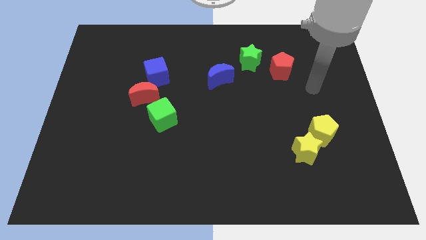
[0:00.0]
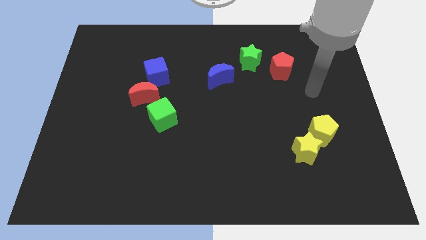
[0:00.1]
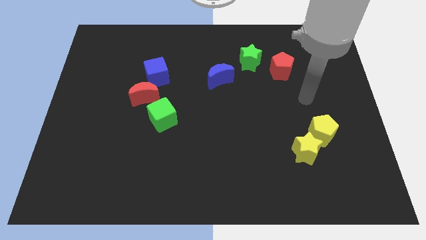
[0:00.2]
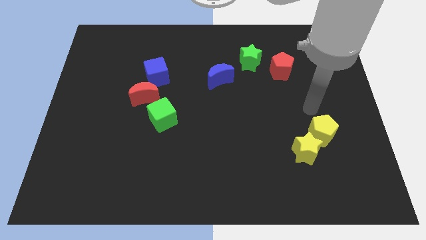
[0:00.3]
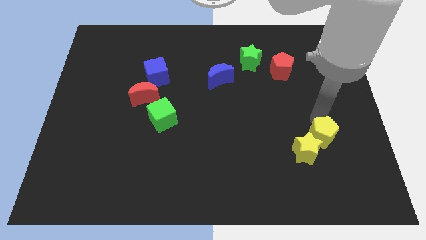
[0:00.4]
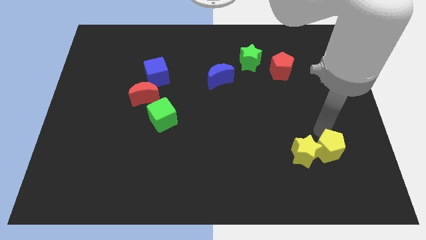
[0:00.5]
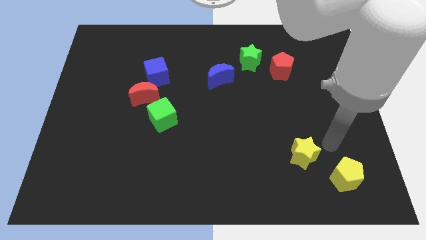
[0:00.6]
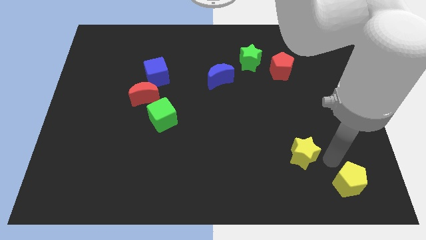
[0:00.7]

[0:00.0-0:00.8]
pull the yellow star apart from the yellow pentagon

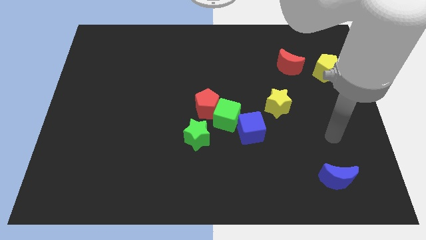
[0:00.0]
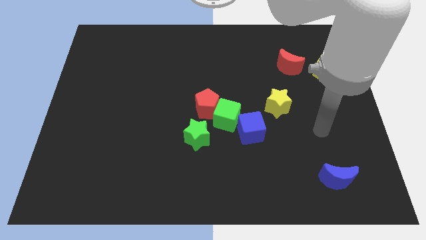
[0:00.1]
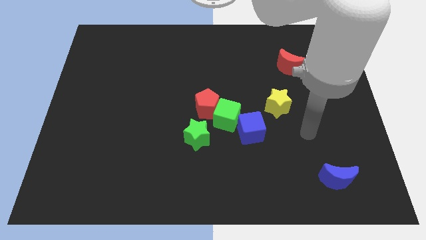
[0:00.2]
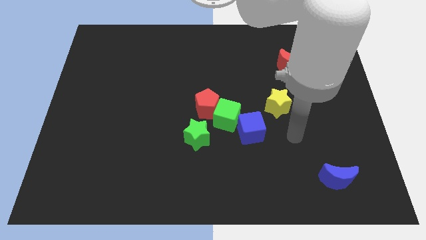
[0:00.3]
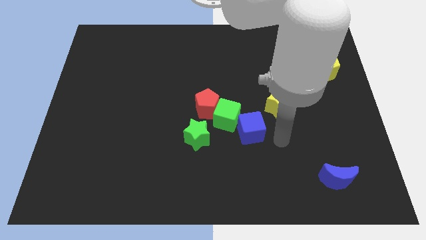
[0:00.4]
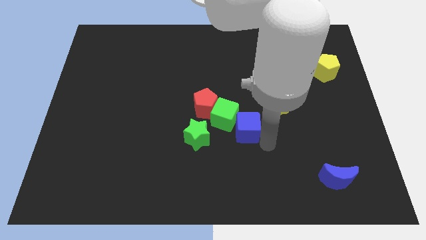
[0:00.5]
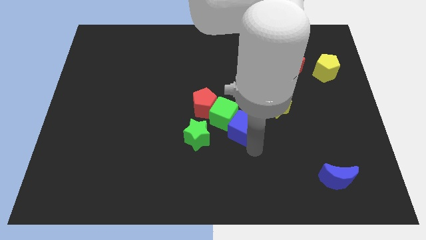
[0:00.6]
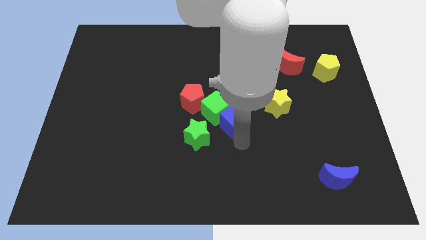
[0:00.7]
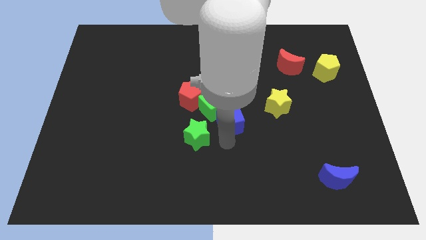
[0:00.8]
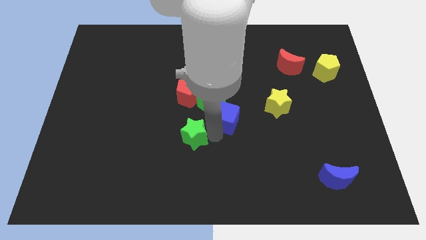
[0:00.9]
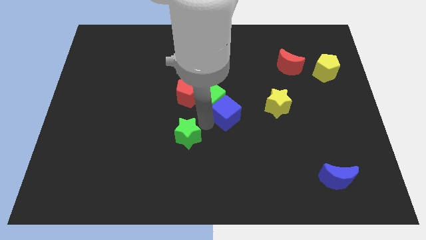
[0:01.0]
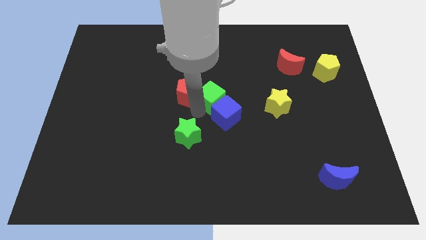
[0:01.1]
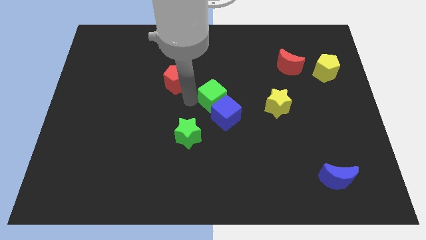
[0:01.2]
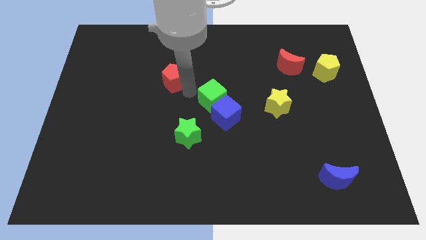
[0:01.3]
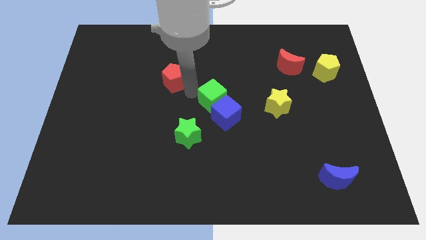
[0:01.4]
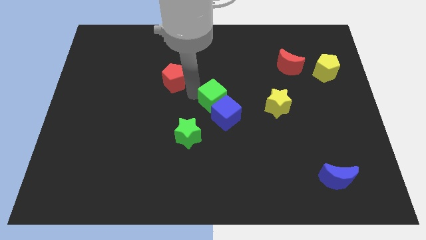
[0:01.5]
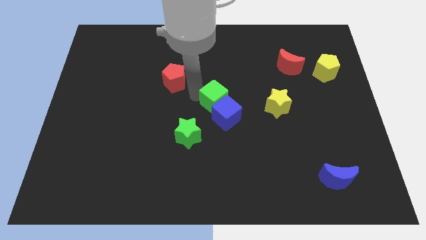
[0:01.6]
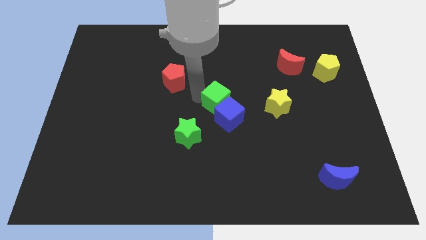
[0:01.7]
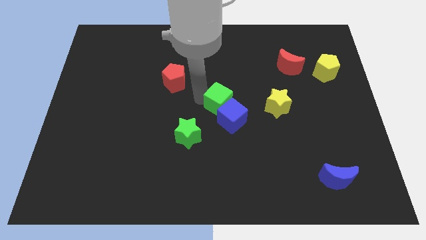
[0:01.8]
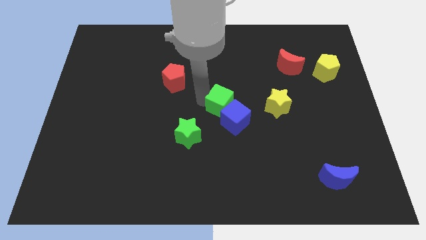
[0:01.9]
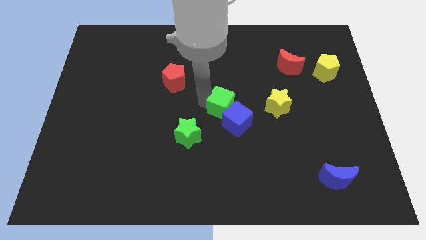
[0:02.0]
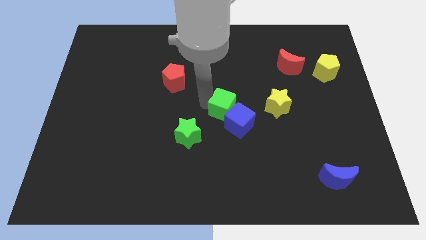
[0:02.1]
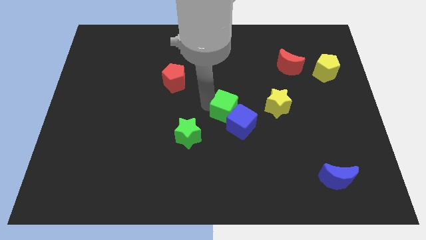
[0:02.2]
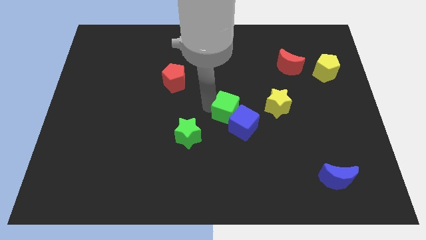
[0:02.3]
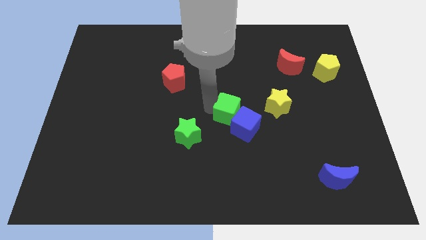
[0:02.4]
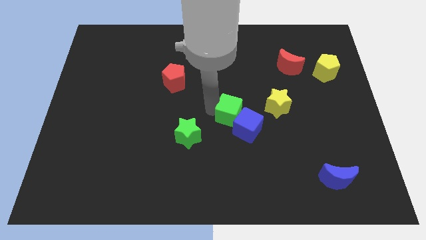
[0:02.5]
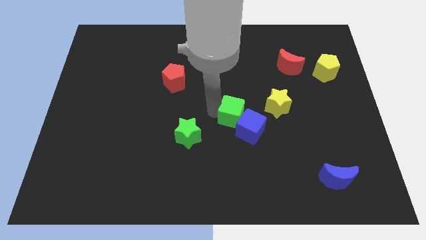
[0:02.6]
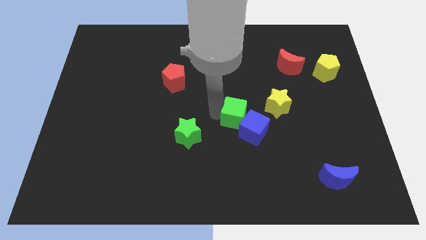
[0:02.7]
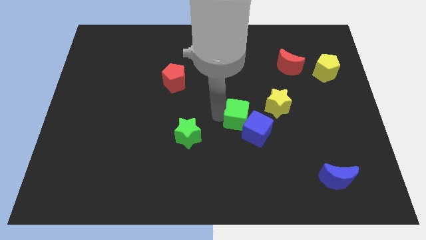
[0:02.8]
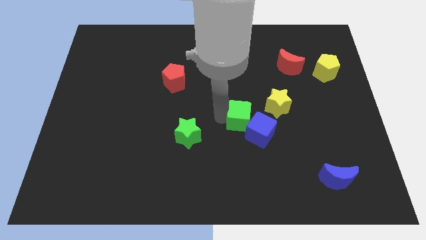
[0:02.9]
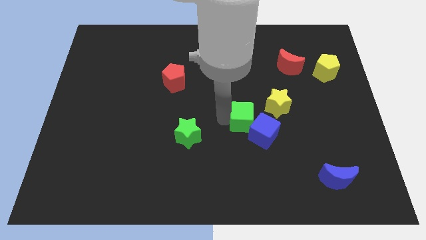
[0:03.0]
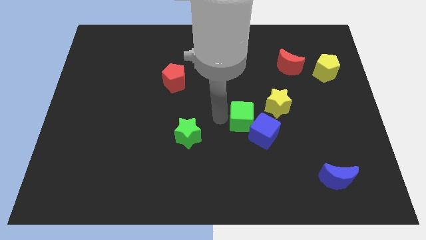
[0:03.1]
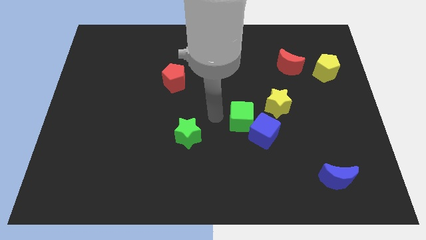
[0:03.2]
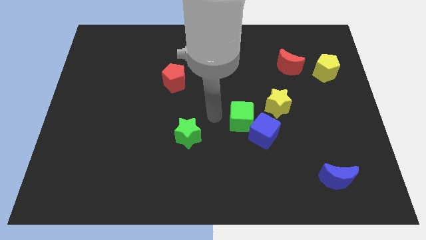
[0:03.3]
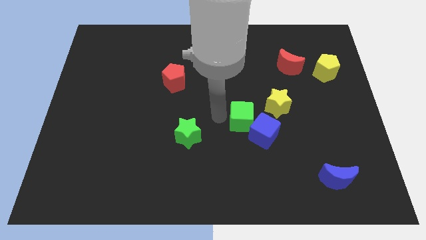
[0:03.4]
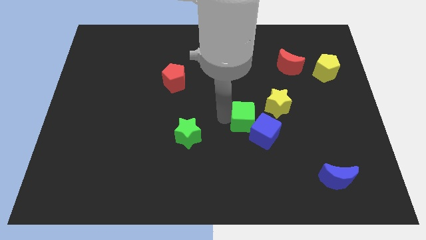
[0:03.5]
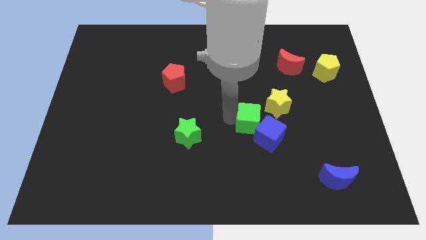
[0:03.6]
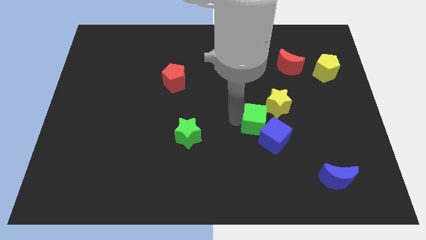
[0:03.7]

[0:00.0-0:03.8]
move the green cube away from the clump

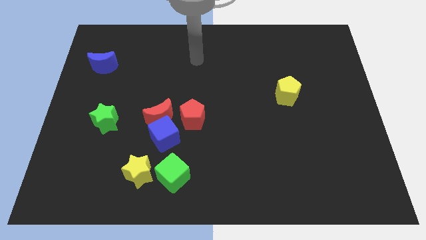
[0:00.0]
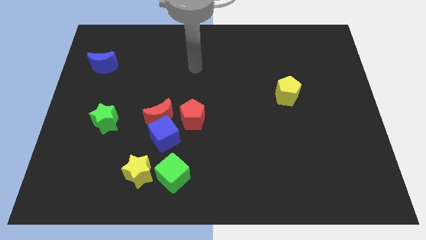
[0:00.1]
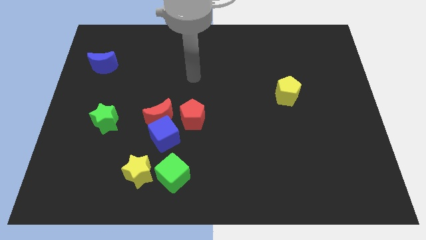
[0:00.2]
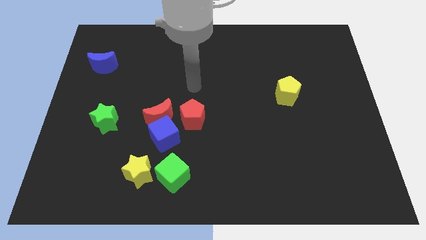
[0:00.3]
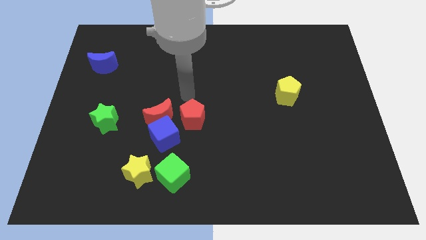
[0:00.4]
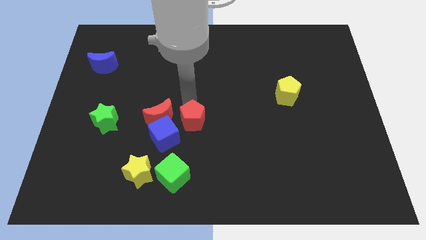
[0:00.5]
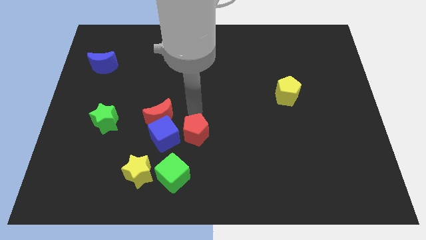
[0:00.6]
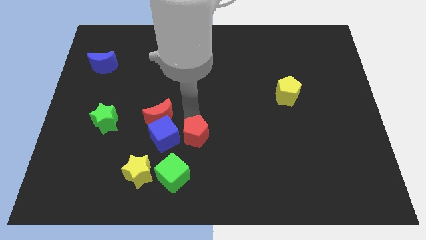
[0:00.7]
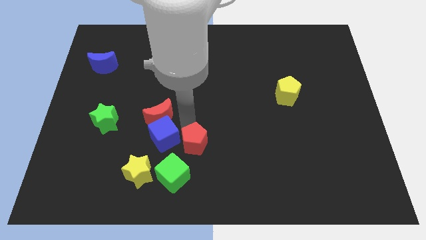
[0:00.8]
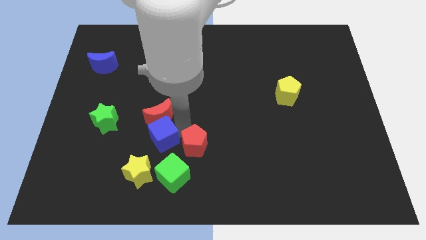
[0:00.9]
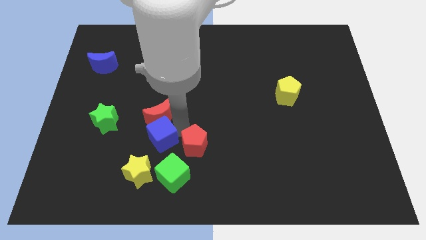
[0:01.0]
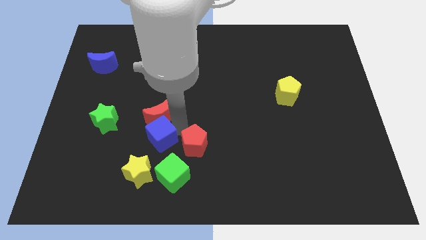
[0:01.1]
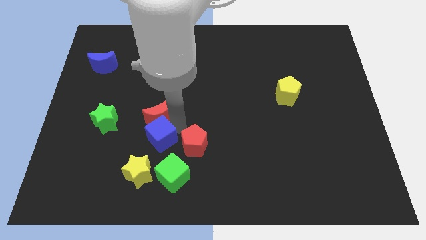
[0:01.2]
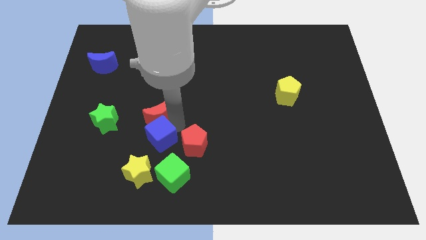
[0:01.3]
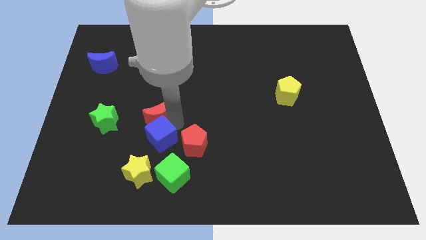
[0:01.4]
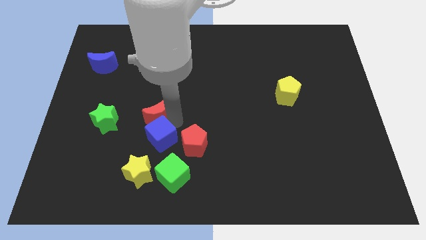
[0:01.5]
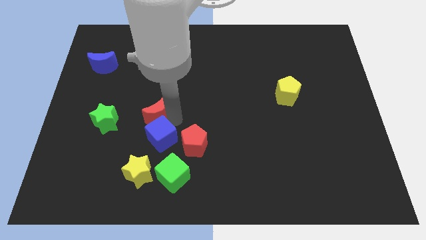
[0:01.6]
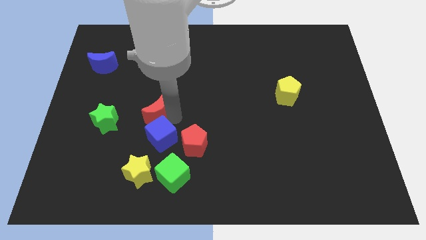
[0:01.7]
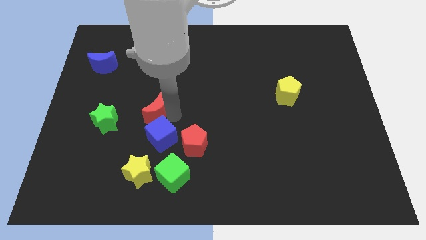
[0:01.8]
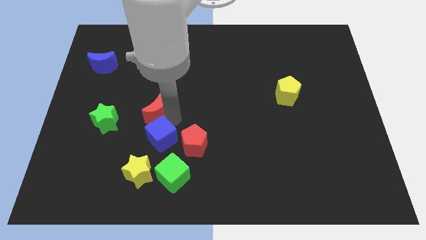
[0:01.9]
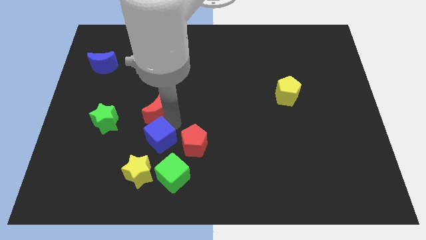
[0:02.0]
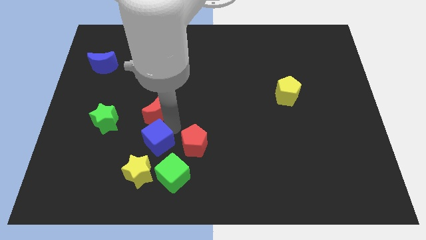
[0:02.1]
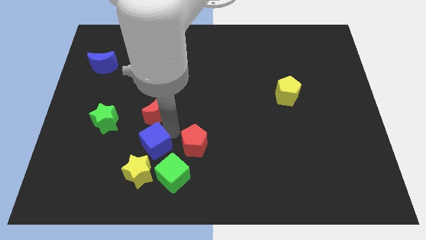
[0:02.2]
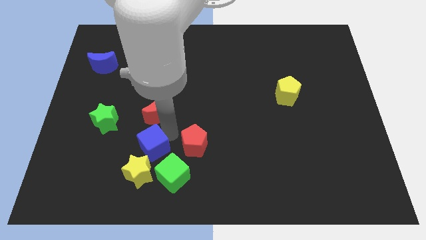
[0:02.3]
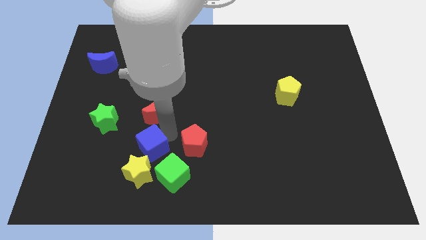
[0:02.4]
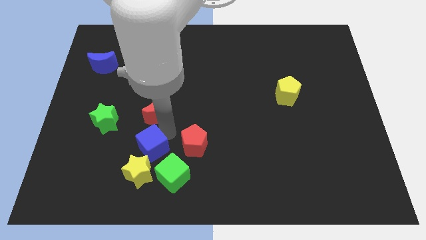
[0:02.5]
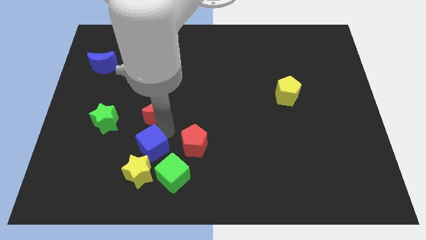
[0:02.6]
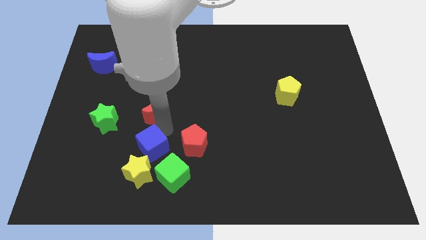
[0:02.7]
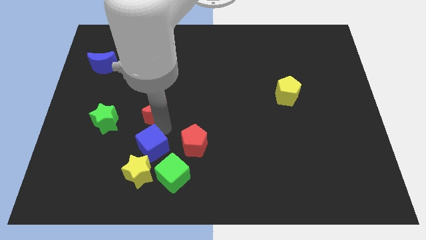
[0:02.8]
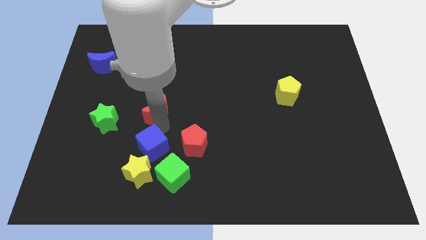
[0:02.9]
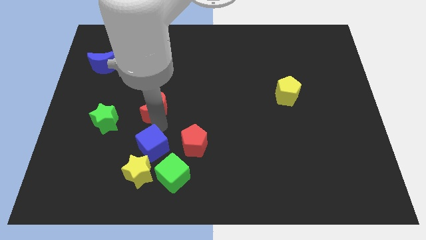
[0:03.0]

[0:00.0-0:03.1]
pull the red moon apart from the blue cube and red pentagon

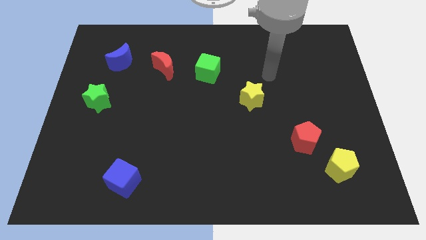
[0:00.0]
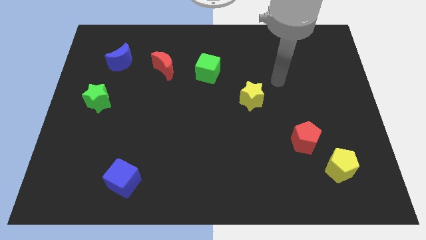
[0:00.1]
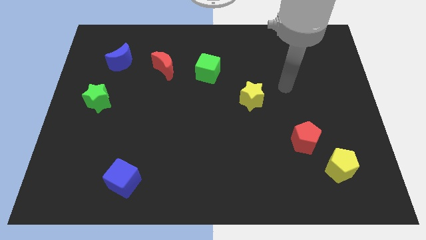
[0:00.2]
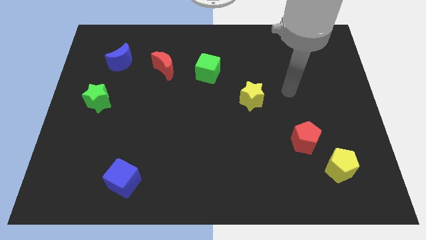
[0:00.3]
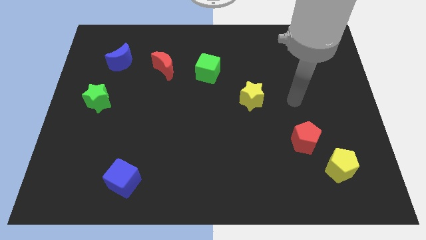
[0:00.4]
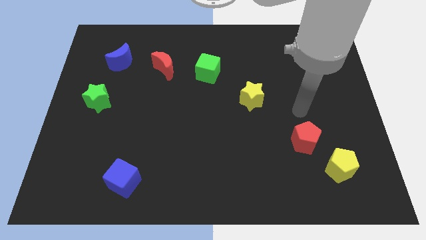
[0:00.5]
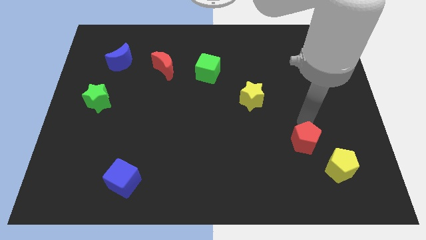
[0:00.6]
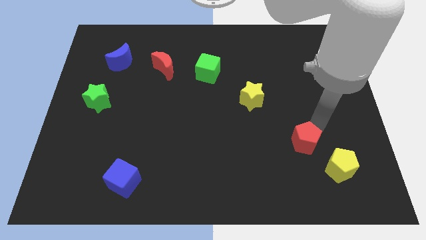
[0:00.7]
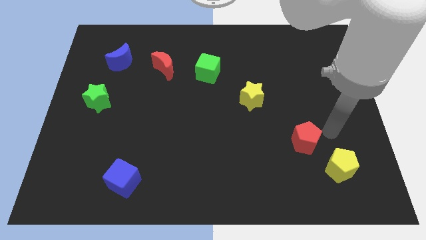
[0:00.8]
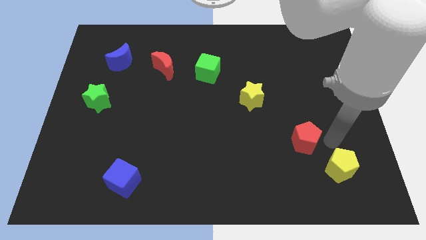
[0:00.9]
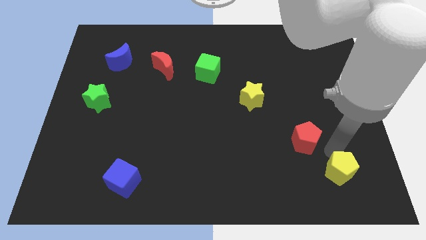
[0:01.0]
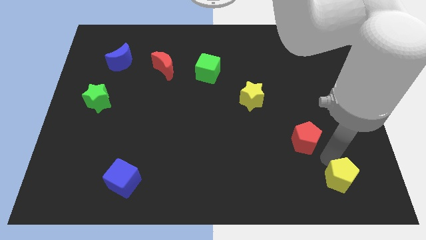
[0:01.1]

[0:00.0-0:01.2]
separate the red pentagon from the yellow pentagon

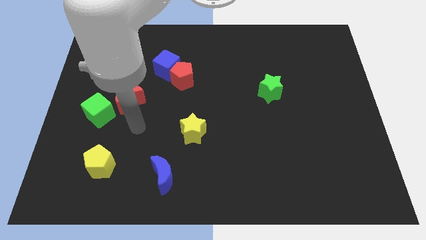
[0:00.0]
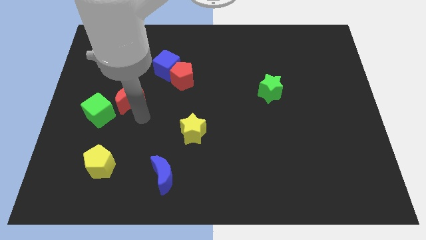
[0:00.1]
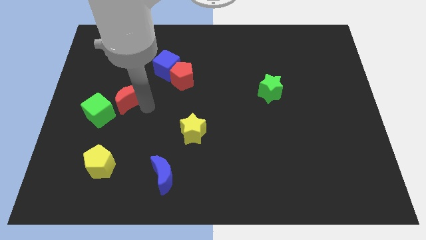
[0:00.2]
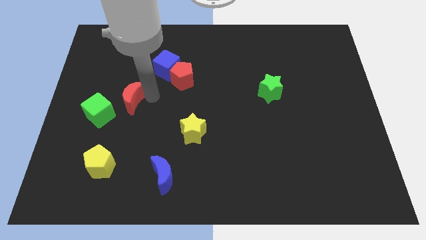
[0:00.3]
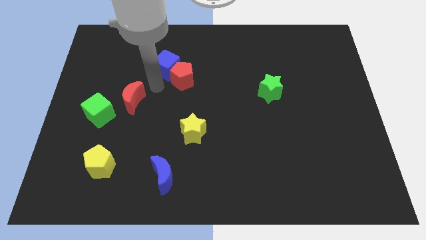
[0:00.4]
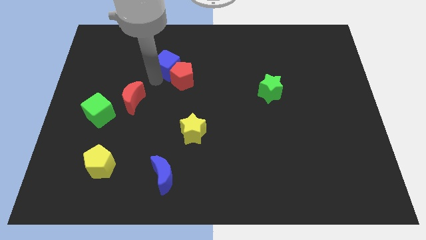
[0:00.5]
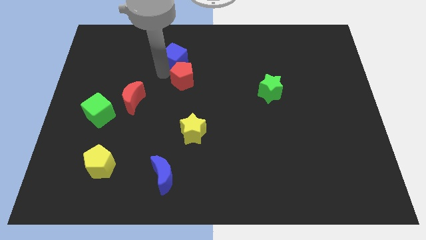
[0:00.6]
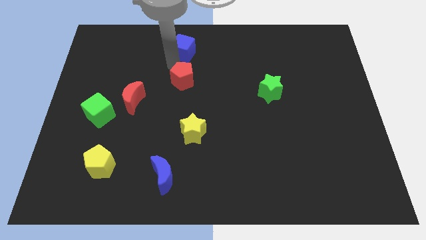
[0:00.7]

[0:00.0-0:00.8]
pull the red pentagon apart from the blue cube
